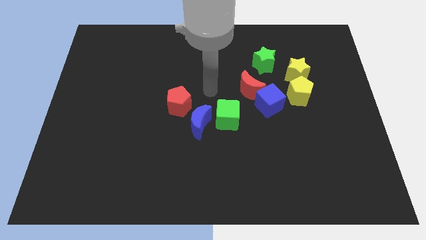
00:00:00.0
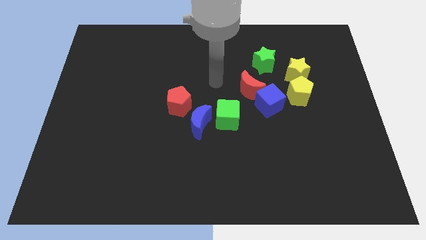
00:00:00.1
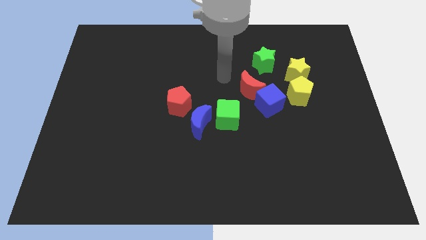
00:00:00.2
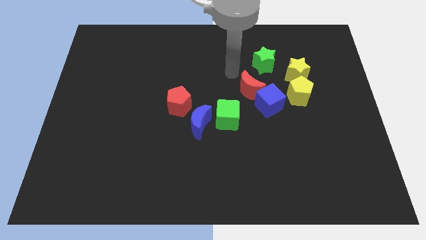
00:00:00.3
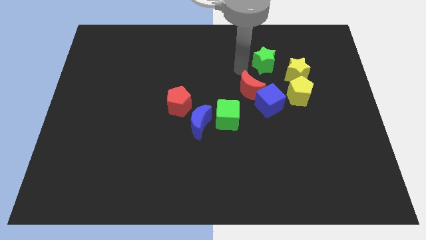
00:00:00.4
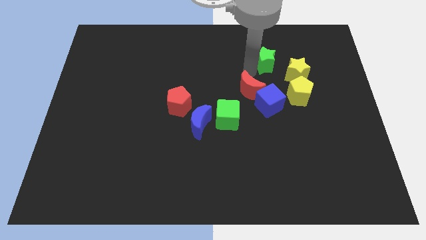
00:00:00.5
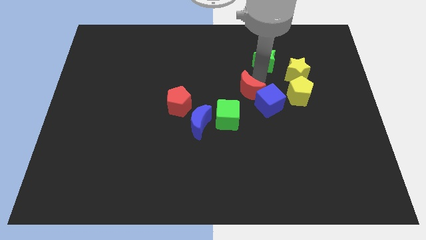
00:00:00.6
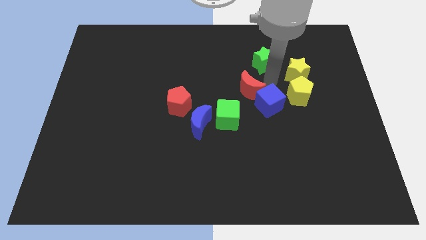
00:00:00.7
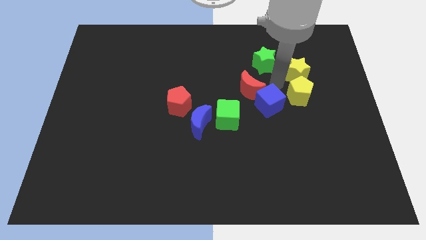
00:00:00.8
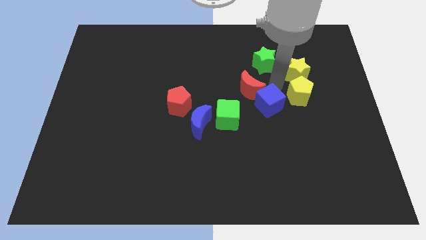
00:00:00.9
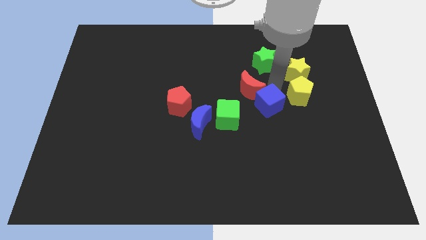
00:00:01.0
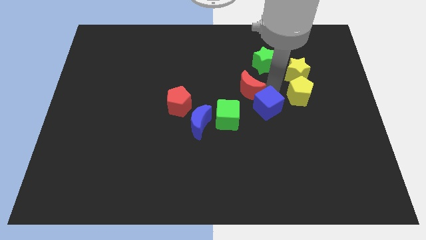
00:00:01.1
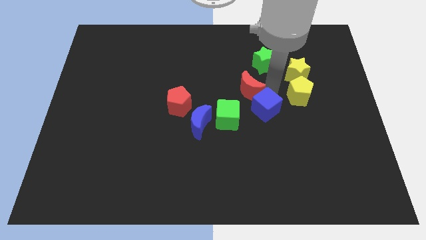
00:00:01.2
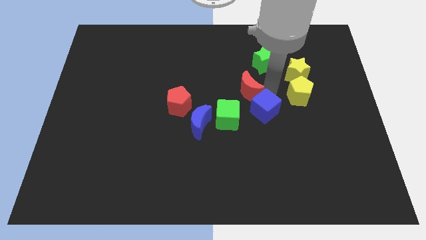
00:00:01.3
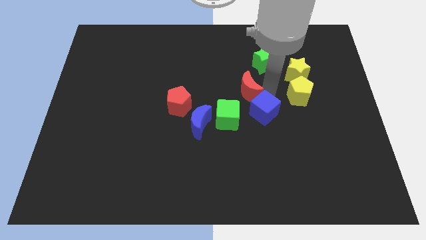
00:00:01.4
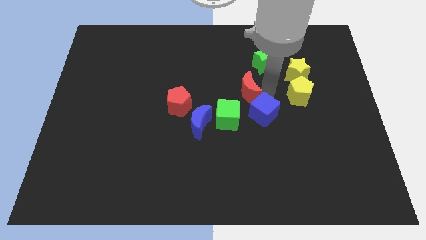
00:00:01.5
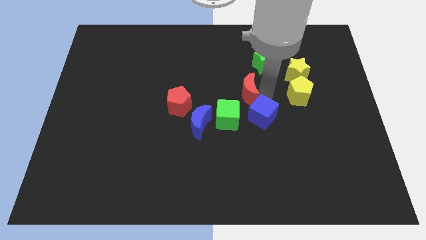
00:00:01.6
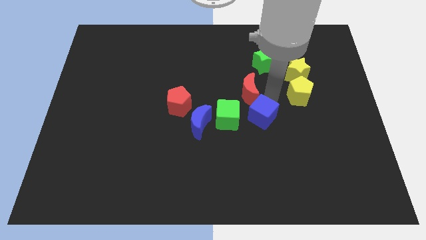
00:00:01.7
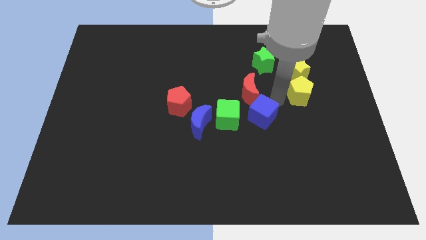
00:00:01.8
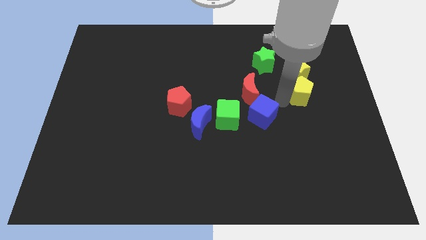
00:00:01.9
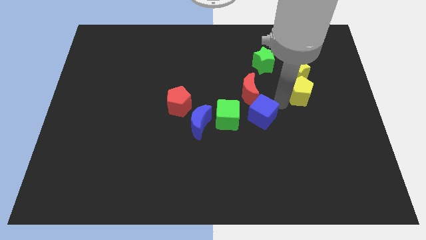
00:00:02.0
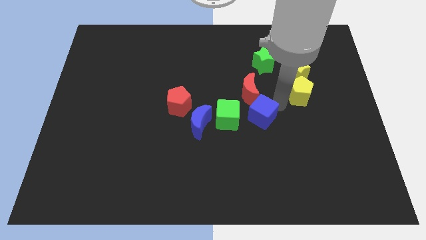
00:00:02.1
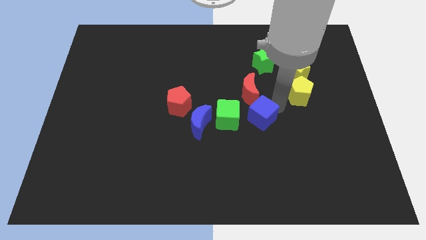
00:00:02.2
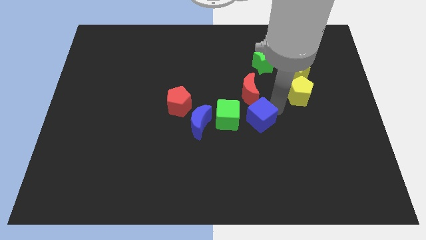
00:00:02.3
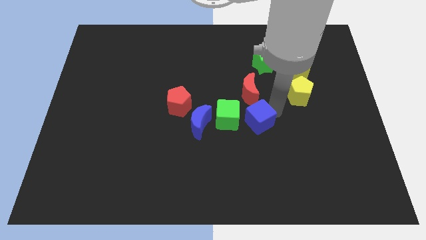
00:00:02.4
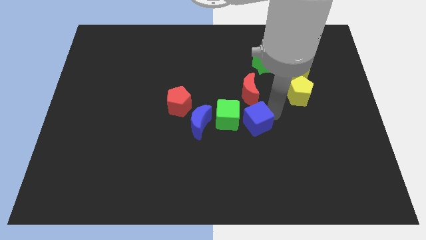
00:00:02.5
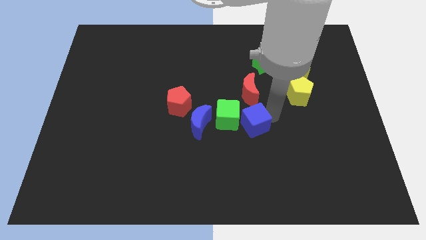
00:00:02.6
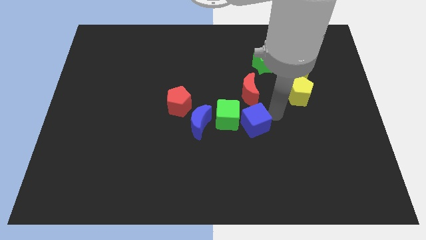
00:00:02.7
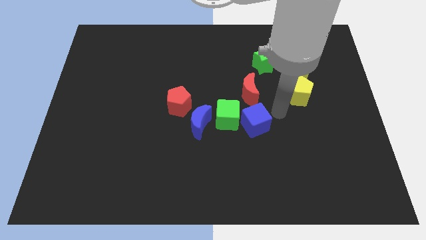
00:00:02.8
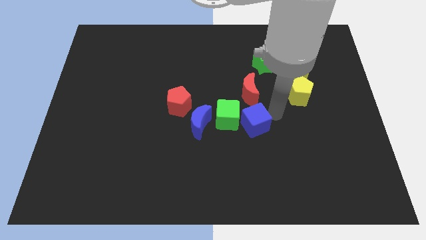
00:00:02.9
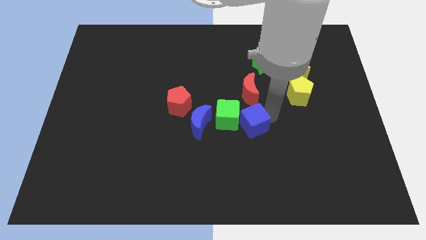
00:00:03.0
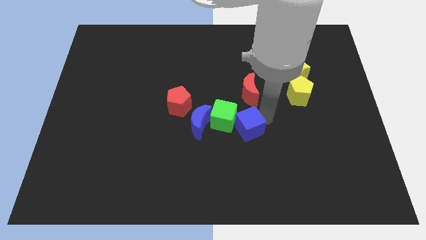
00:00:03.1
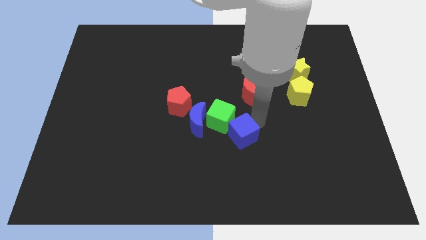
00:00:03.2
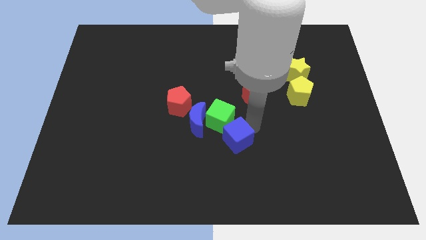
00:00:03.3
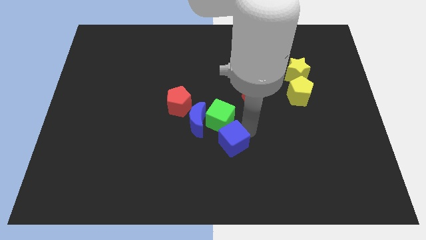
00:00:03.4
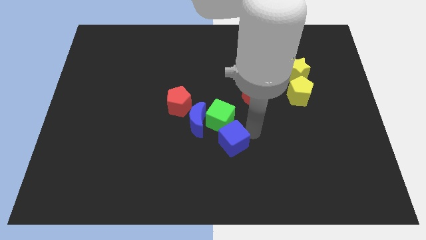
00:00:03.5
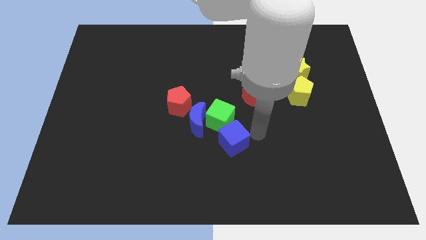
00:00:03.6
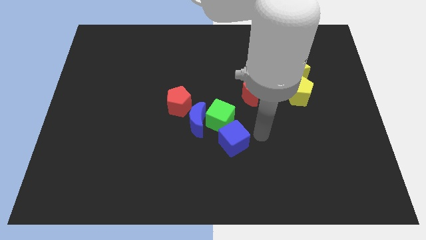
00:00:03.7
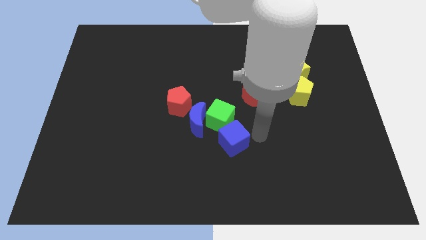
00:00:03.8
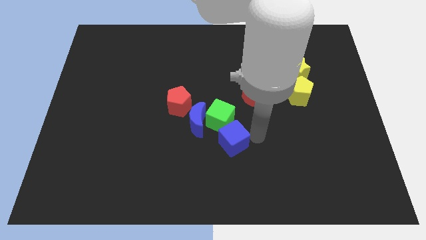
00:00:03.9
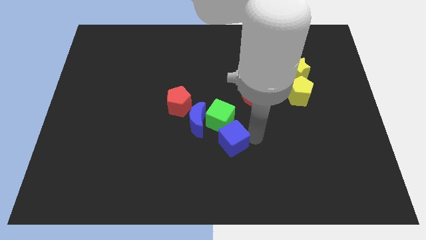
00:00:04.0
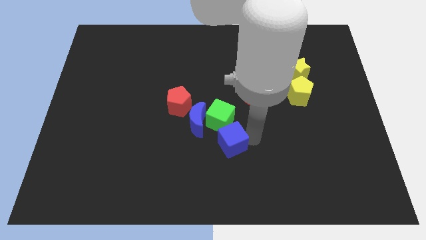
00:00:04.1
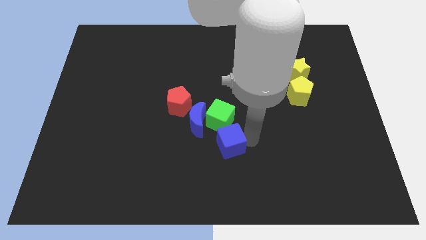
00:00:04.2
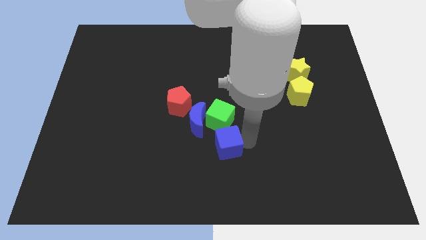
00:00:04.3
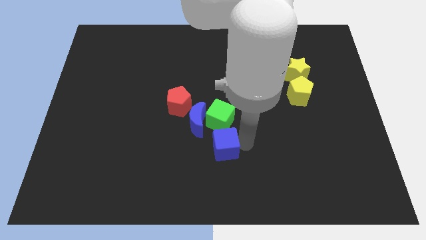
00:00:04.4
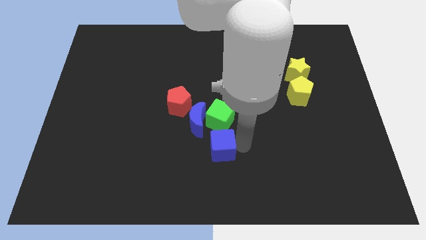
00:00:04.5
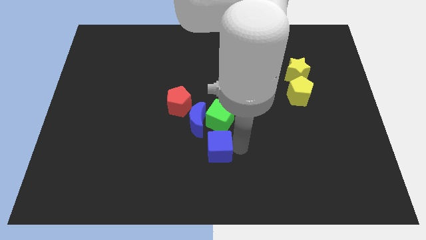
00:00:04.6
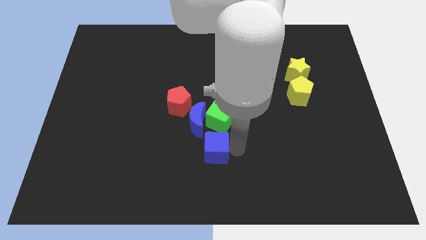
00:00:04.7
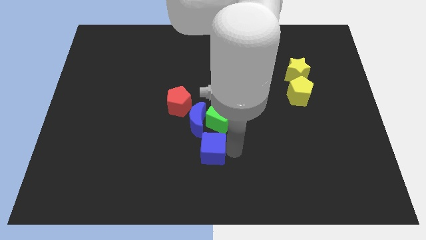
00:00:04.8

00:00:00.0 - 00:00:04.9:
slide the blue cube diagonally down and to the left of the green cube

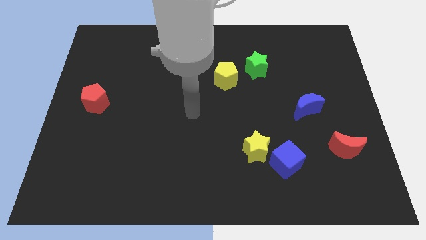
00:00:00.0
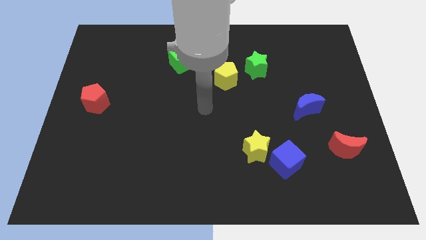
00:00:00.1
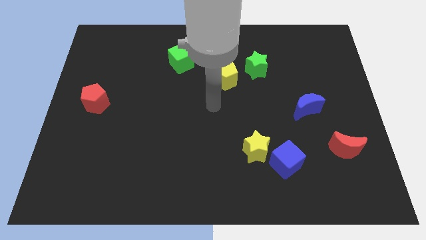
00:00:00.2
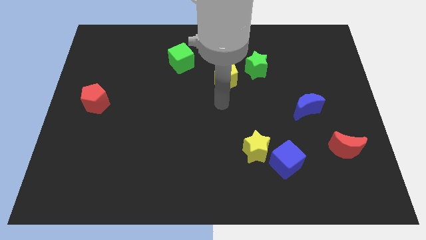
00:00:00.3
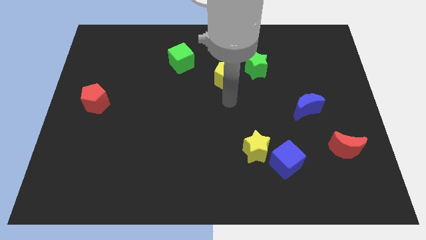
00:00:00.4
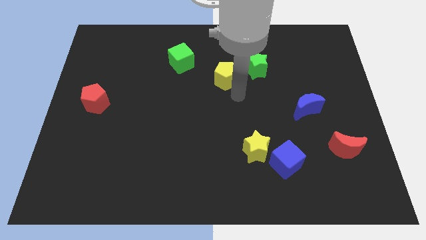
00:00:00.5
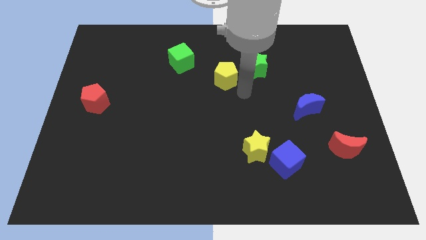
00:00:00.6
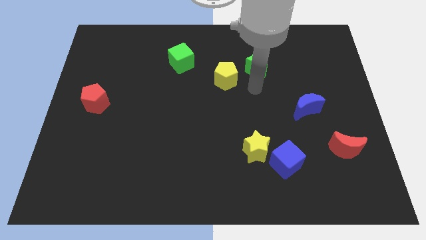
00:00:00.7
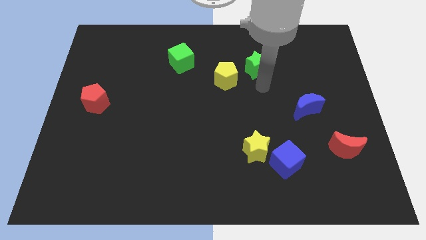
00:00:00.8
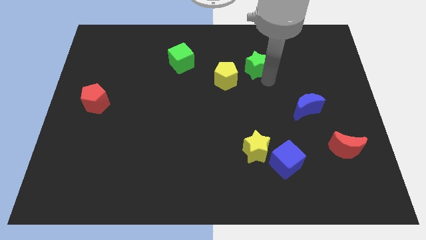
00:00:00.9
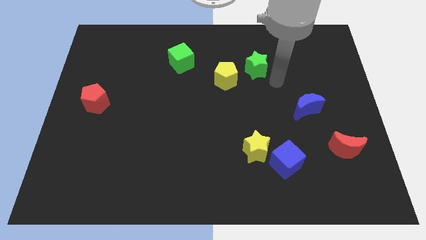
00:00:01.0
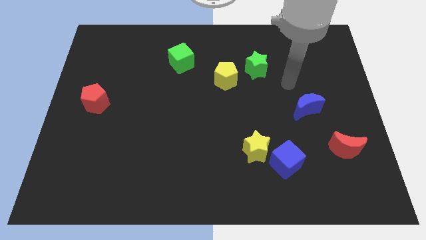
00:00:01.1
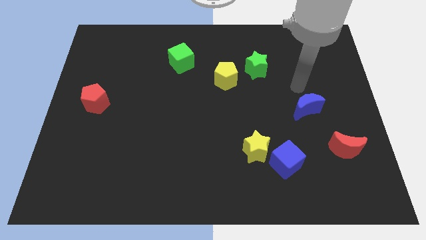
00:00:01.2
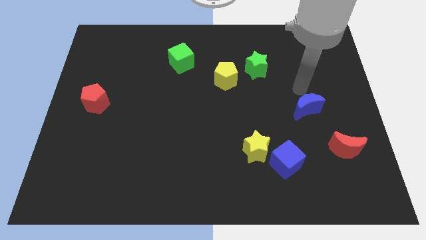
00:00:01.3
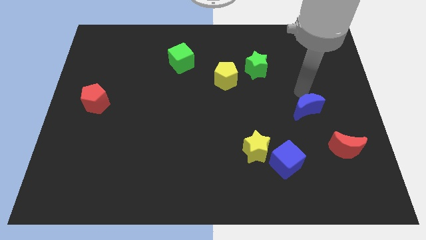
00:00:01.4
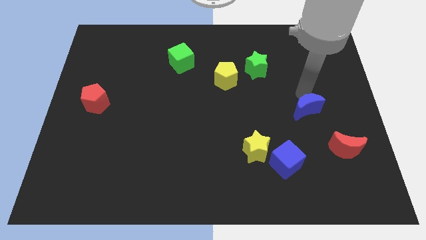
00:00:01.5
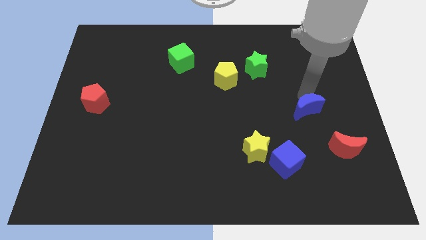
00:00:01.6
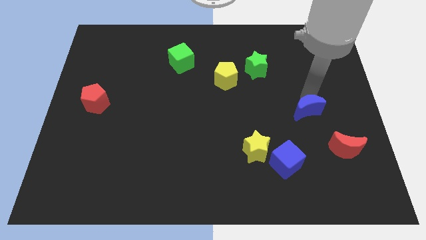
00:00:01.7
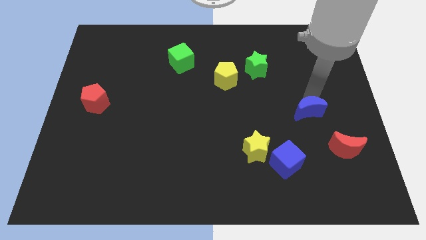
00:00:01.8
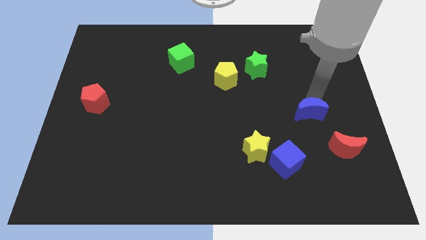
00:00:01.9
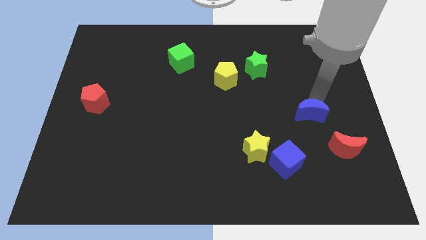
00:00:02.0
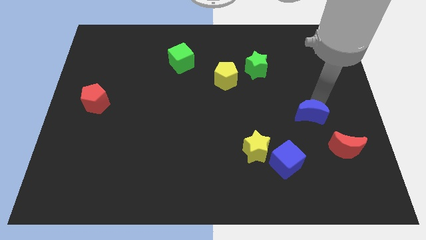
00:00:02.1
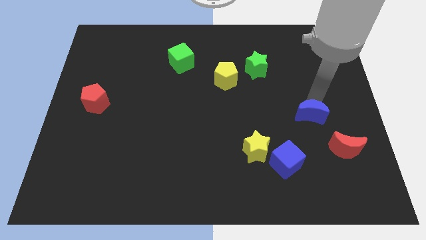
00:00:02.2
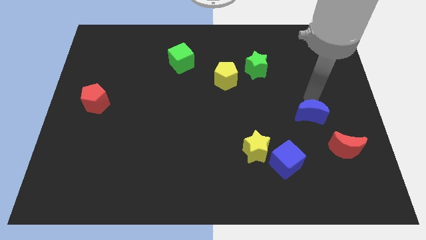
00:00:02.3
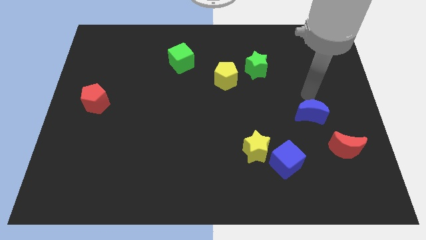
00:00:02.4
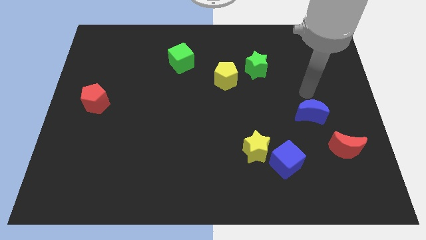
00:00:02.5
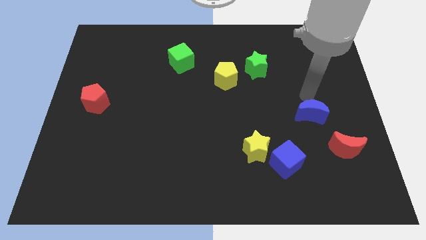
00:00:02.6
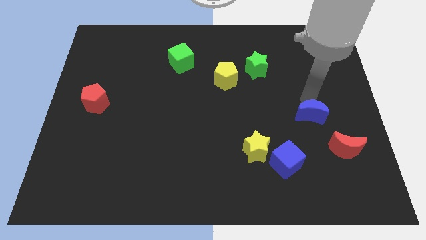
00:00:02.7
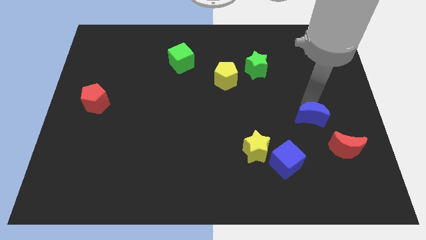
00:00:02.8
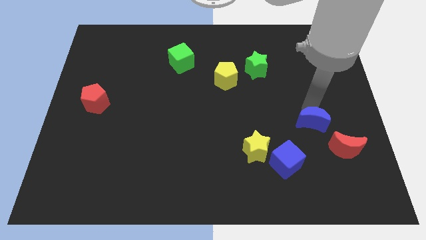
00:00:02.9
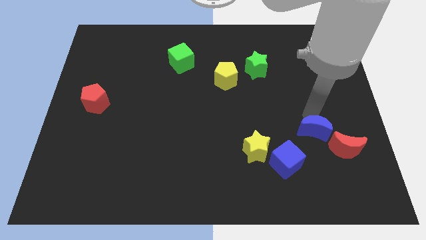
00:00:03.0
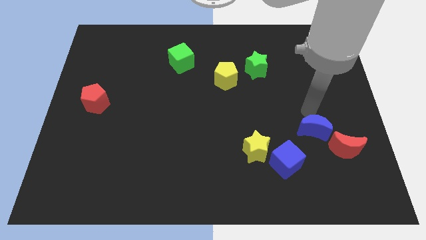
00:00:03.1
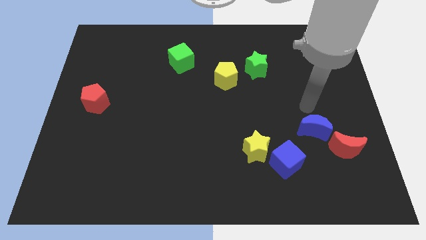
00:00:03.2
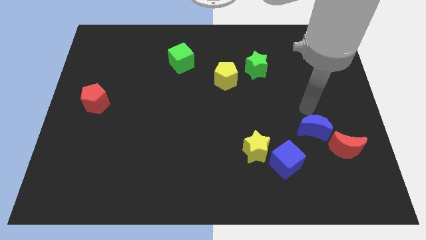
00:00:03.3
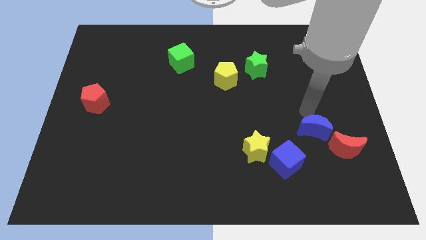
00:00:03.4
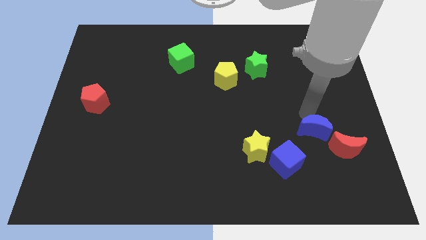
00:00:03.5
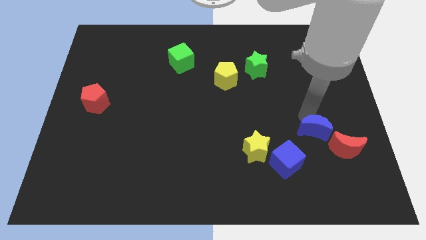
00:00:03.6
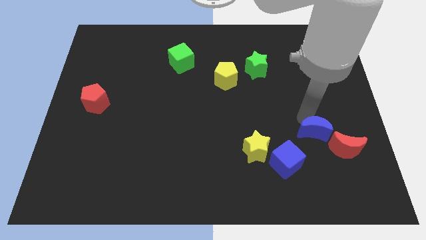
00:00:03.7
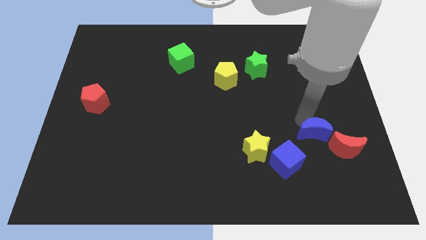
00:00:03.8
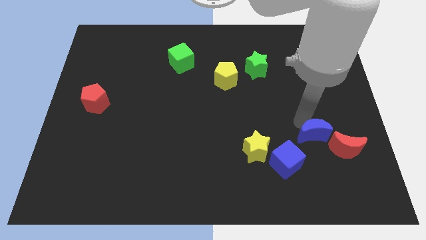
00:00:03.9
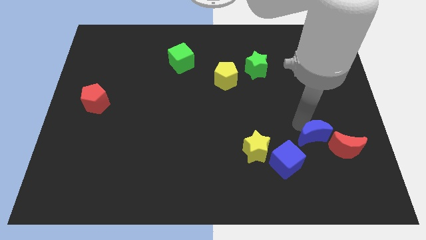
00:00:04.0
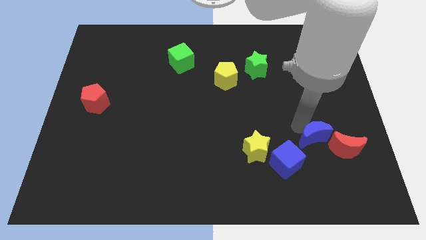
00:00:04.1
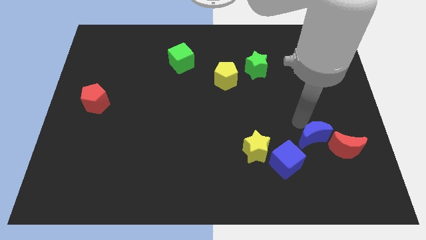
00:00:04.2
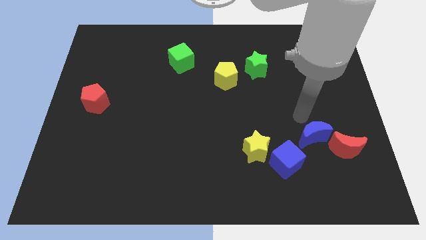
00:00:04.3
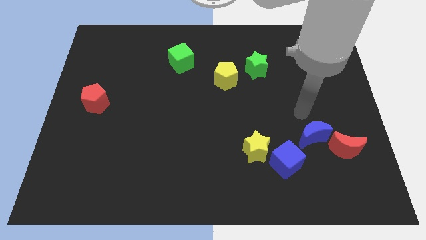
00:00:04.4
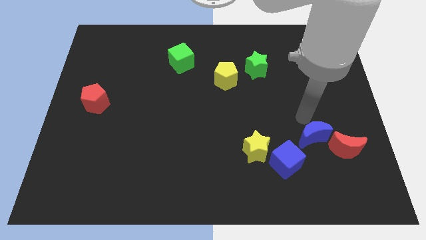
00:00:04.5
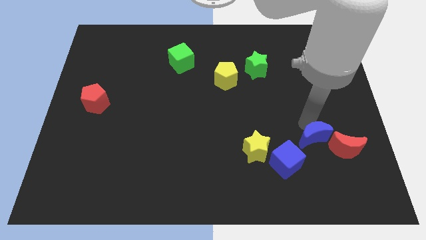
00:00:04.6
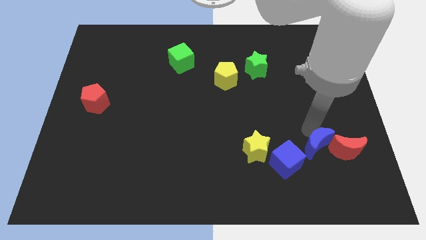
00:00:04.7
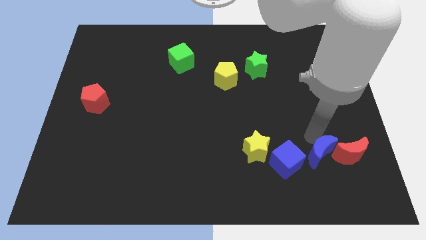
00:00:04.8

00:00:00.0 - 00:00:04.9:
move the blue moon to the bottom left side of the red moon
